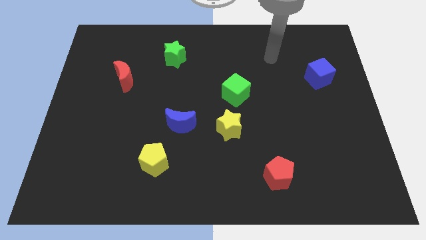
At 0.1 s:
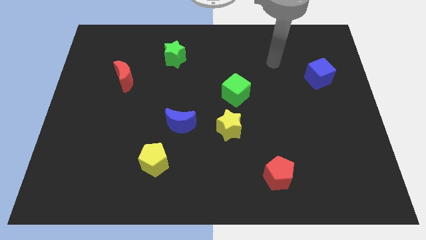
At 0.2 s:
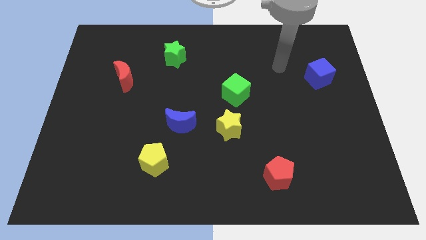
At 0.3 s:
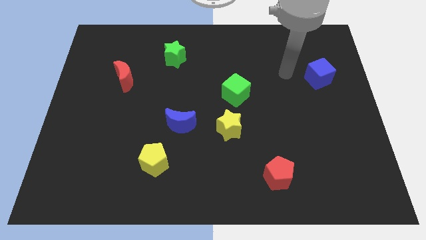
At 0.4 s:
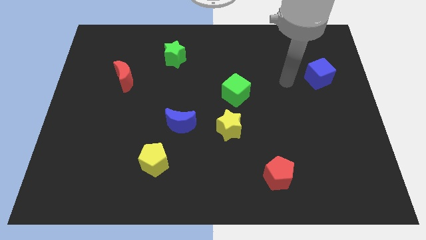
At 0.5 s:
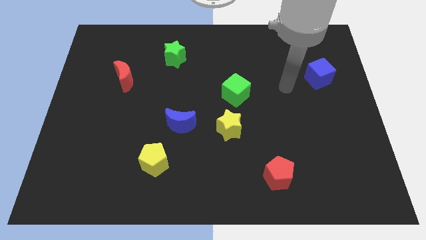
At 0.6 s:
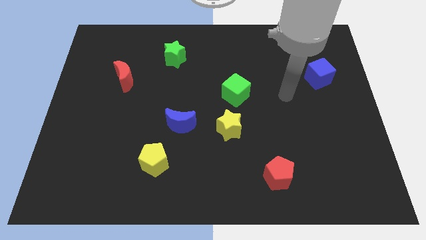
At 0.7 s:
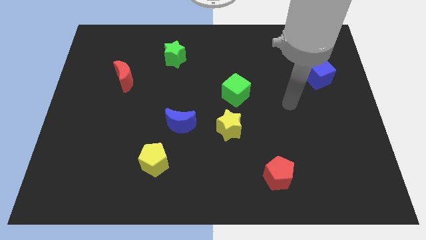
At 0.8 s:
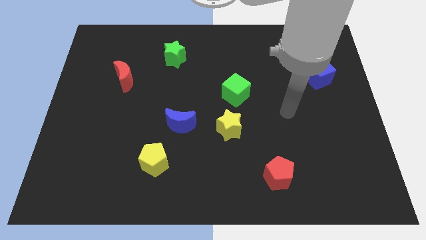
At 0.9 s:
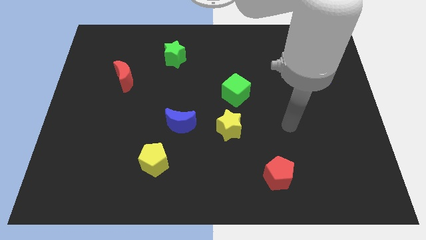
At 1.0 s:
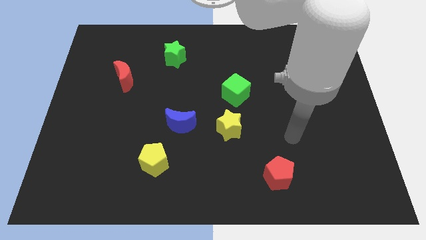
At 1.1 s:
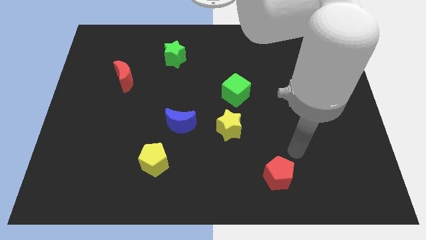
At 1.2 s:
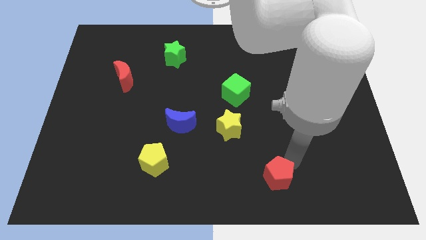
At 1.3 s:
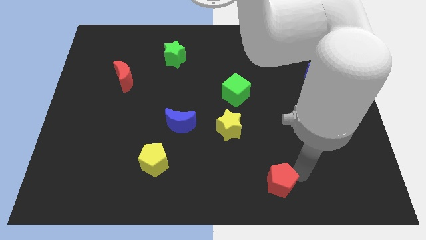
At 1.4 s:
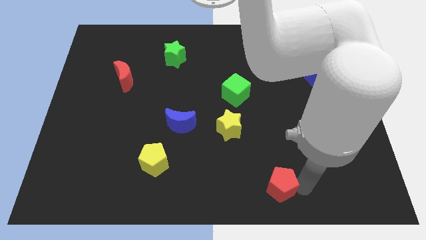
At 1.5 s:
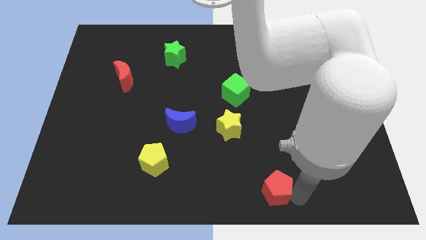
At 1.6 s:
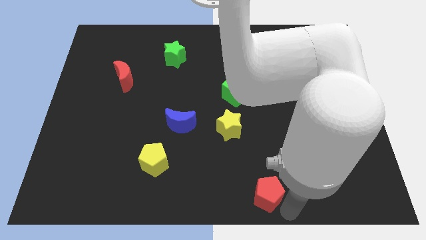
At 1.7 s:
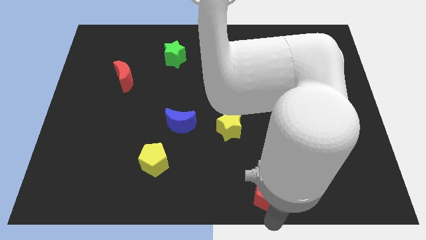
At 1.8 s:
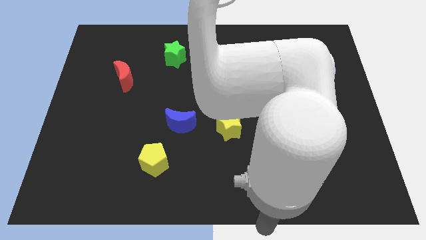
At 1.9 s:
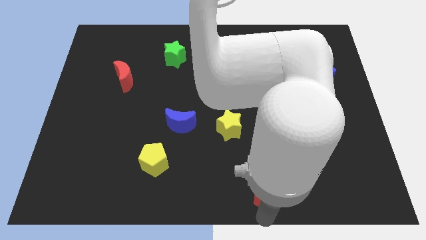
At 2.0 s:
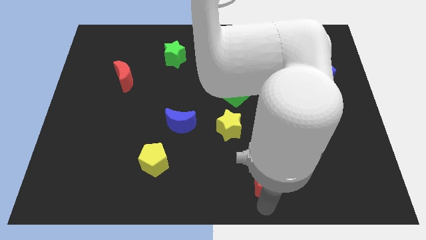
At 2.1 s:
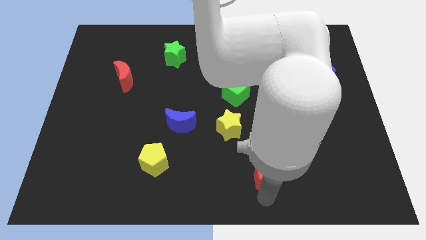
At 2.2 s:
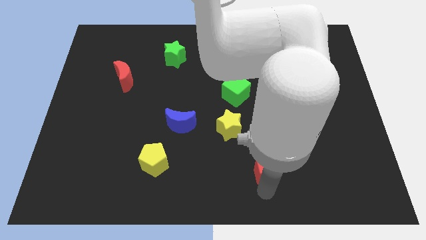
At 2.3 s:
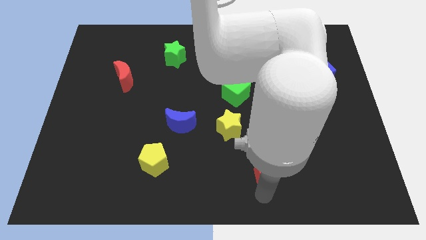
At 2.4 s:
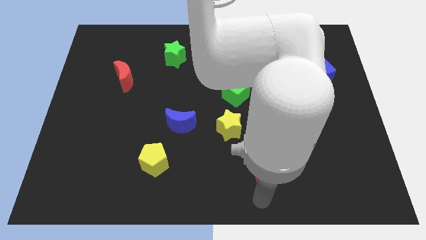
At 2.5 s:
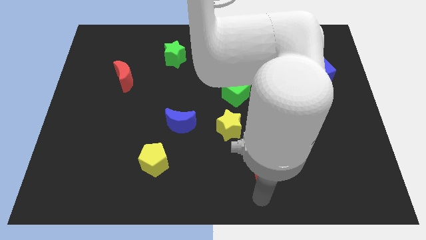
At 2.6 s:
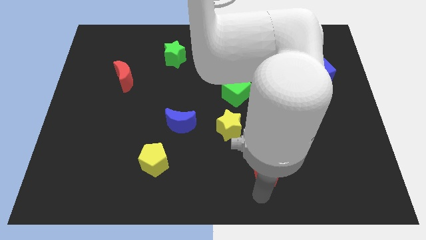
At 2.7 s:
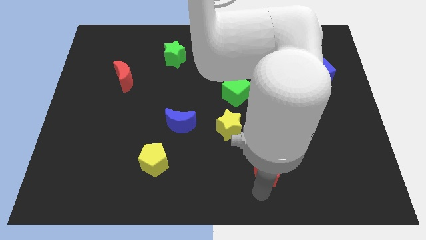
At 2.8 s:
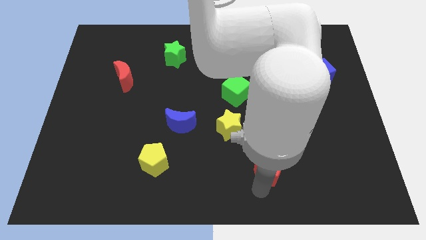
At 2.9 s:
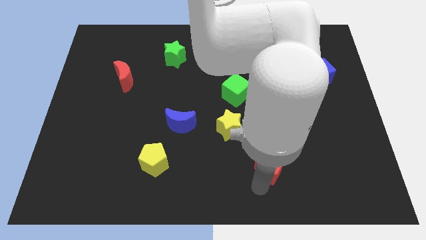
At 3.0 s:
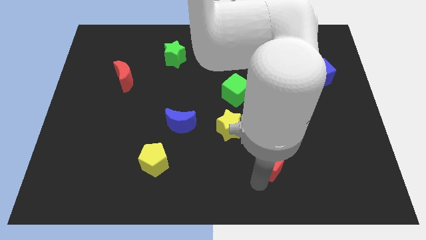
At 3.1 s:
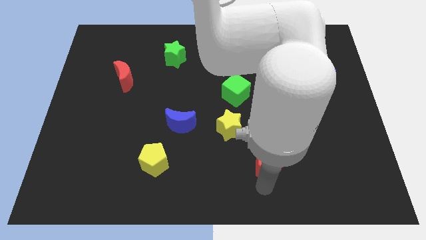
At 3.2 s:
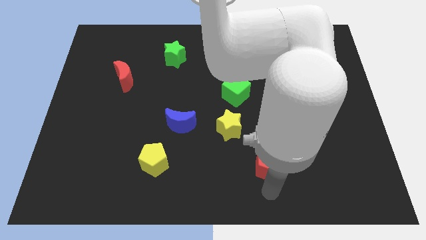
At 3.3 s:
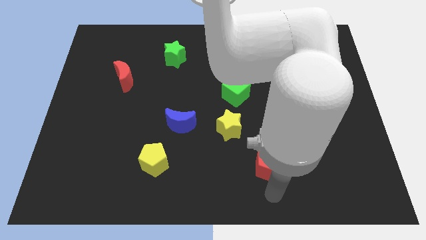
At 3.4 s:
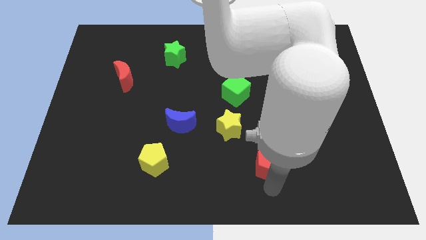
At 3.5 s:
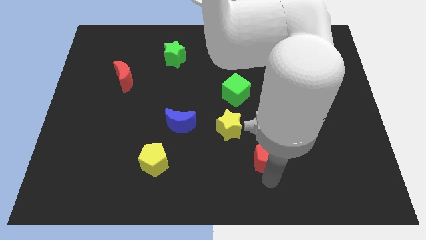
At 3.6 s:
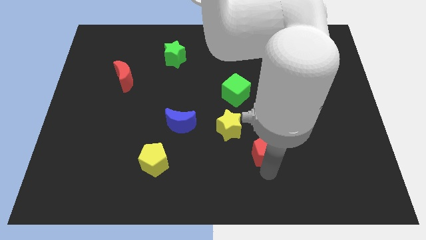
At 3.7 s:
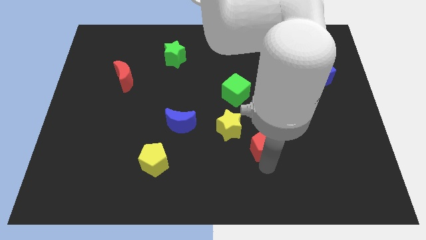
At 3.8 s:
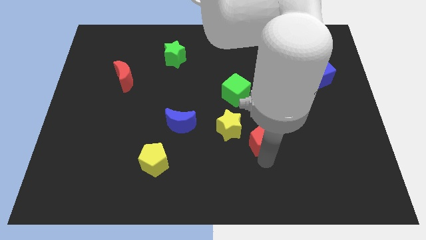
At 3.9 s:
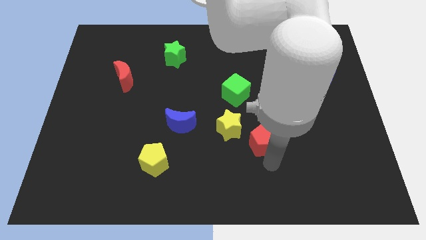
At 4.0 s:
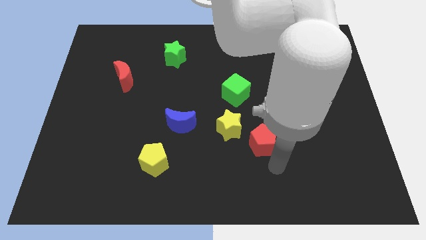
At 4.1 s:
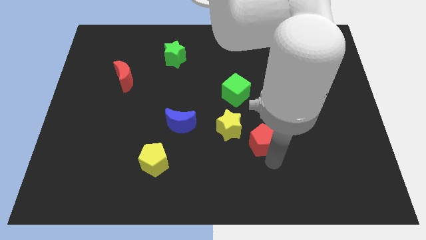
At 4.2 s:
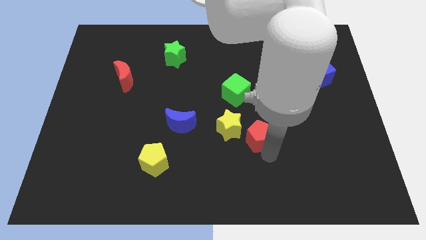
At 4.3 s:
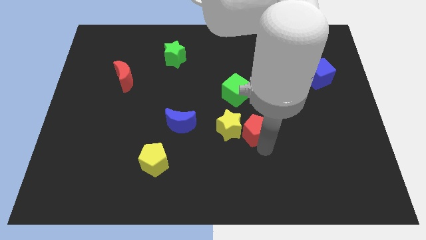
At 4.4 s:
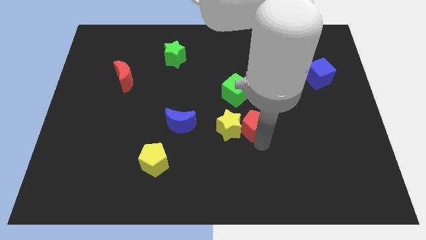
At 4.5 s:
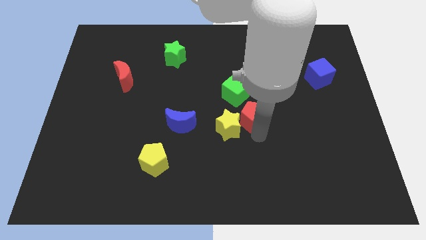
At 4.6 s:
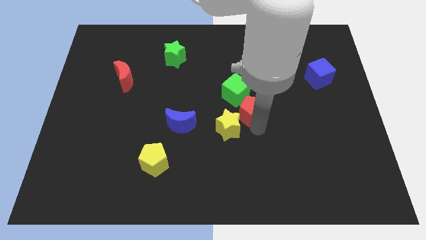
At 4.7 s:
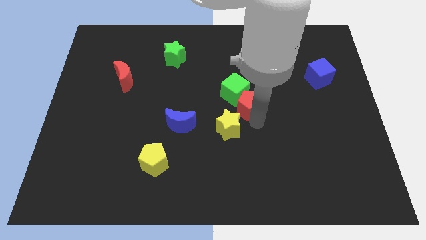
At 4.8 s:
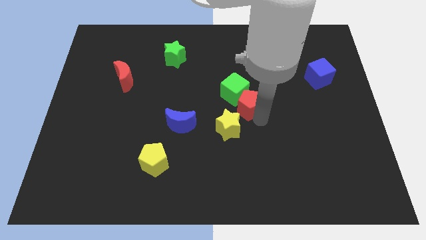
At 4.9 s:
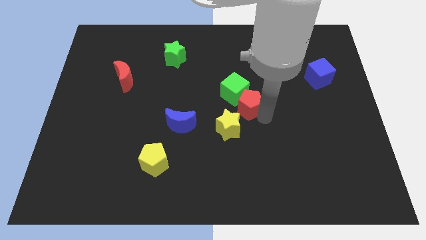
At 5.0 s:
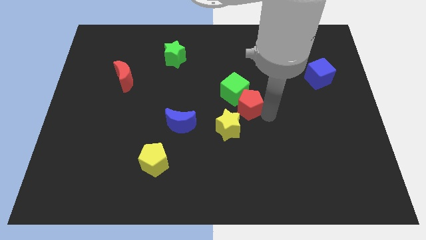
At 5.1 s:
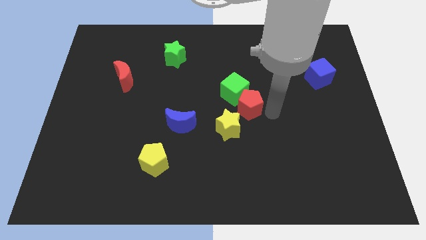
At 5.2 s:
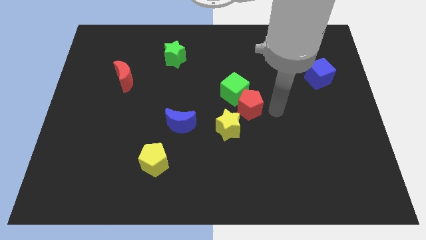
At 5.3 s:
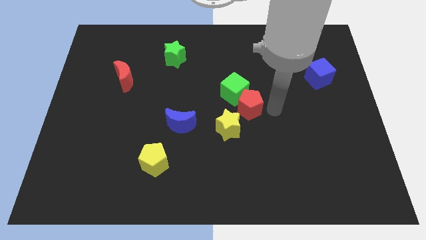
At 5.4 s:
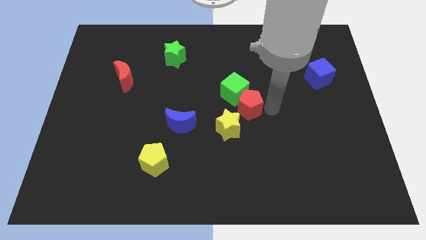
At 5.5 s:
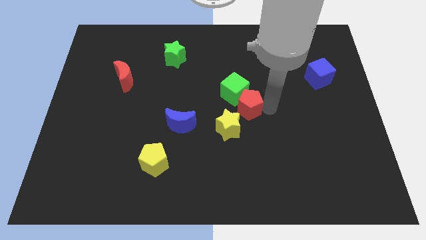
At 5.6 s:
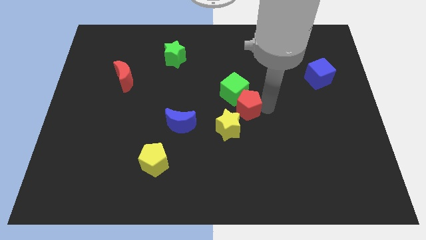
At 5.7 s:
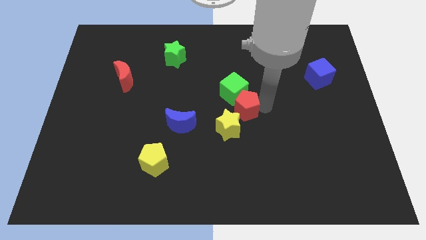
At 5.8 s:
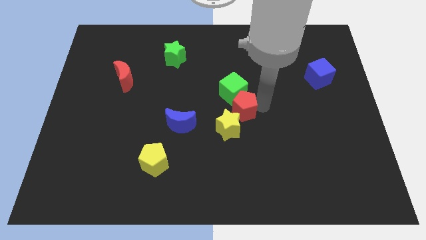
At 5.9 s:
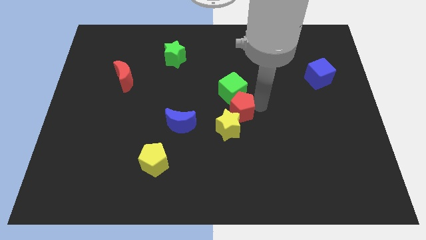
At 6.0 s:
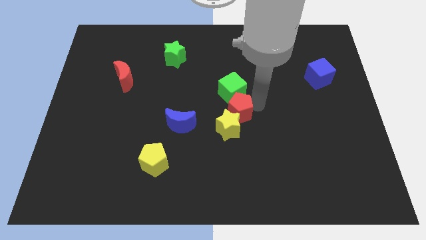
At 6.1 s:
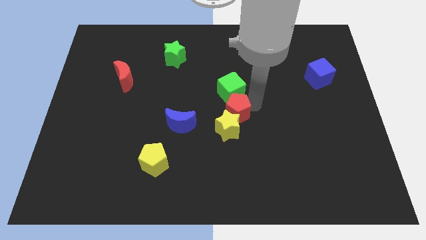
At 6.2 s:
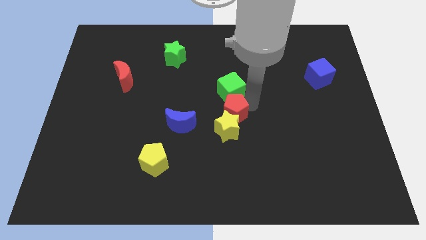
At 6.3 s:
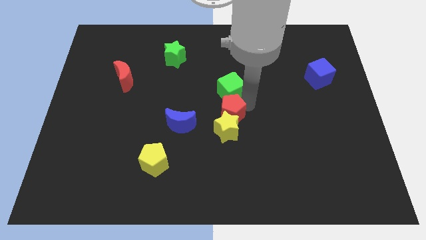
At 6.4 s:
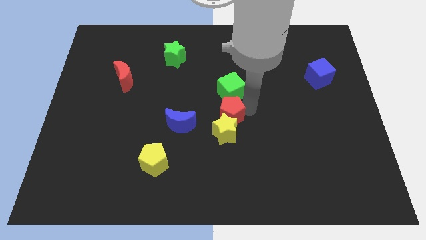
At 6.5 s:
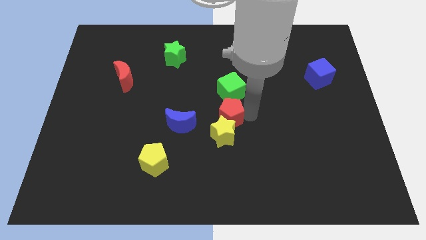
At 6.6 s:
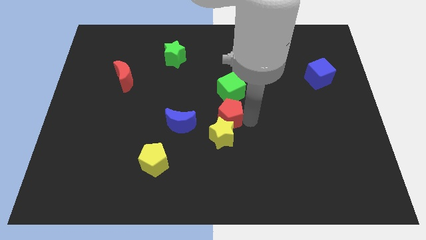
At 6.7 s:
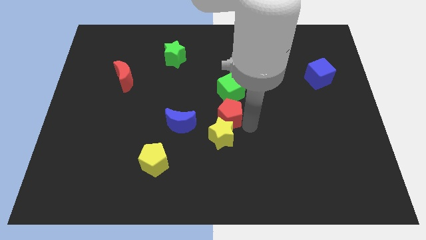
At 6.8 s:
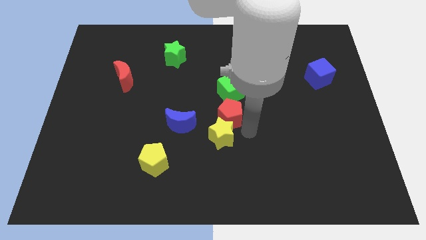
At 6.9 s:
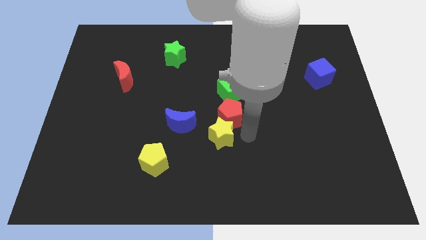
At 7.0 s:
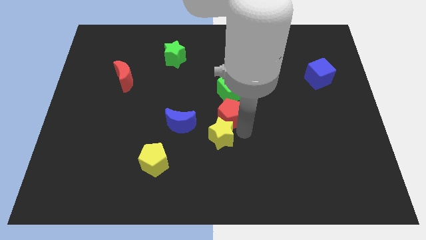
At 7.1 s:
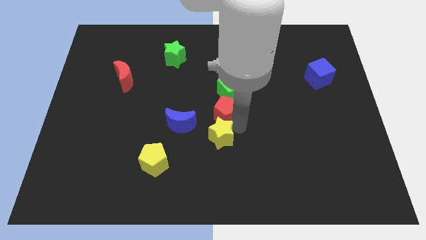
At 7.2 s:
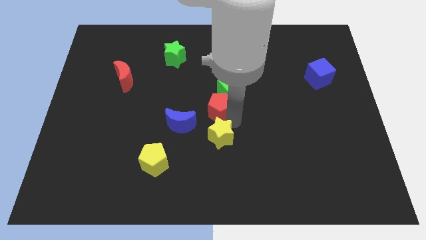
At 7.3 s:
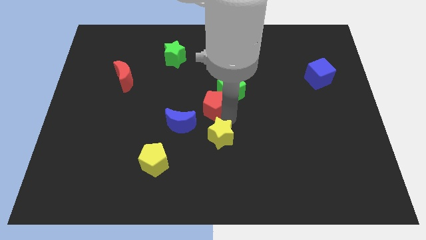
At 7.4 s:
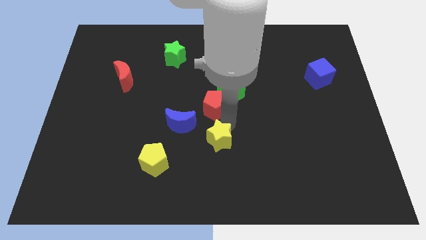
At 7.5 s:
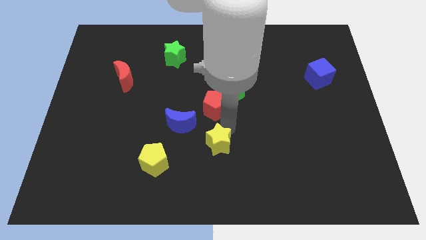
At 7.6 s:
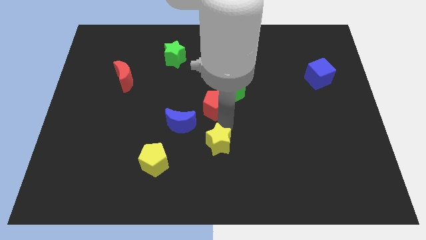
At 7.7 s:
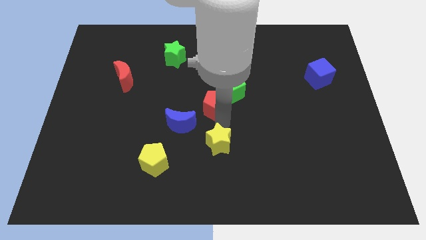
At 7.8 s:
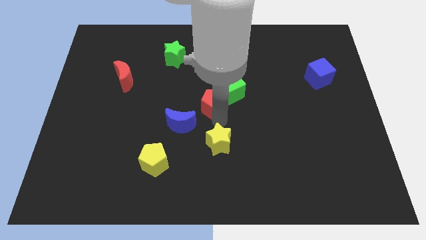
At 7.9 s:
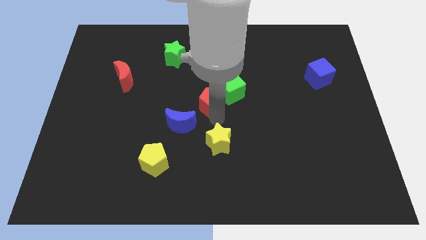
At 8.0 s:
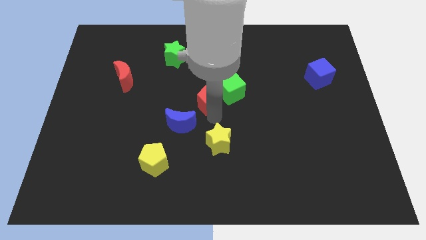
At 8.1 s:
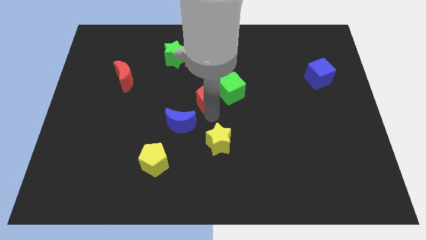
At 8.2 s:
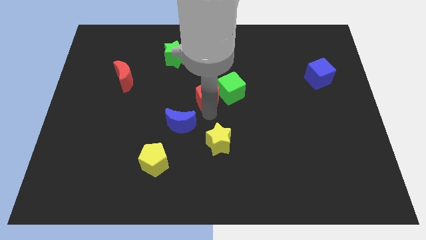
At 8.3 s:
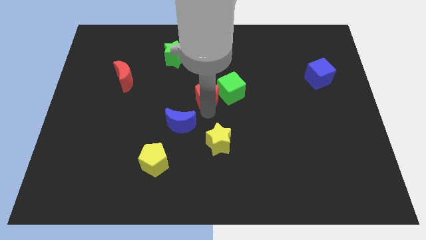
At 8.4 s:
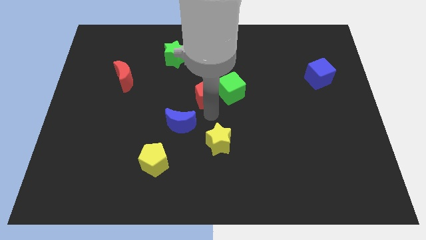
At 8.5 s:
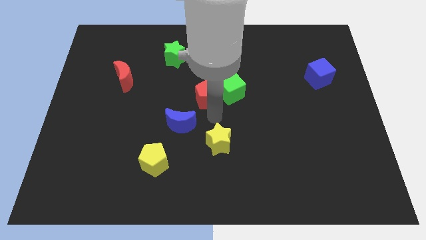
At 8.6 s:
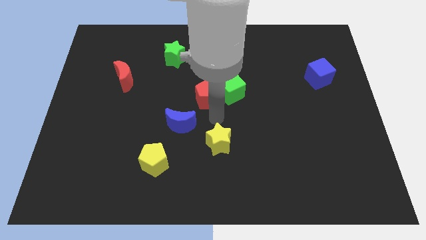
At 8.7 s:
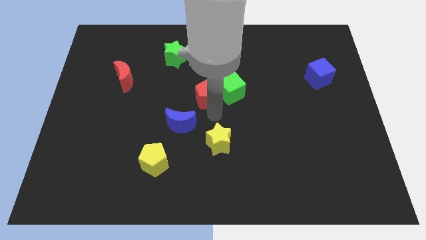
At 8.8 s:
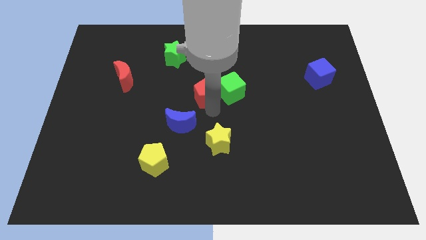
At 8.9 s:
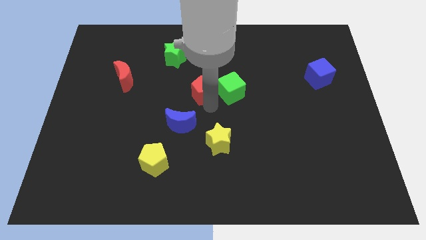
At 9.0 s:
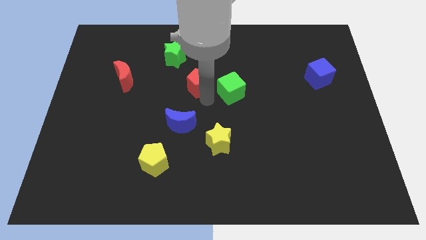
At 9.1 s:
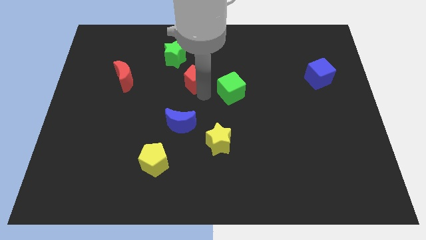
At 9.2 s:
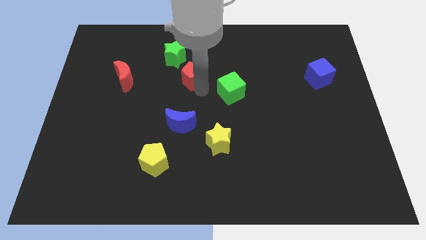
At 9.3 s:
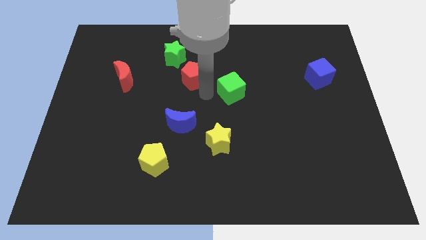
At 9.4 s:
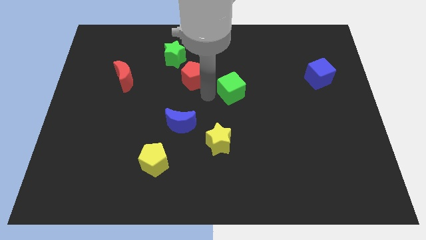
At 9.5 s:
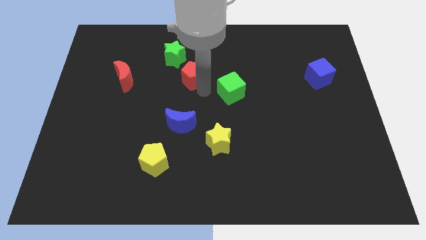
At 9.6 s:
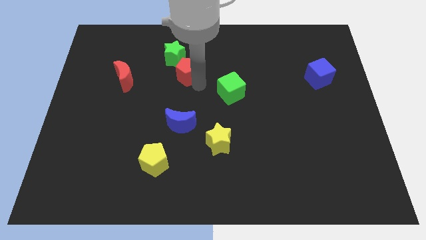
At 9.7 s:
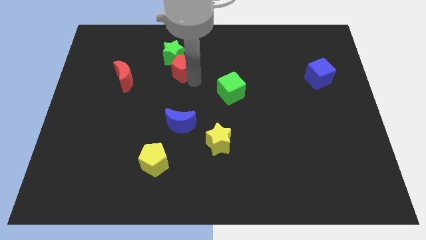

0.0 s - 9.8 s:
slide the red pentagon towards the green star
